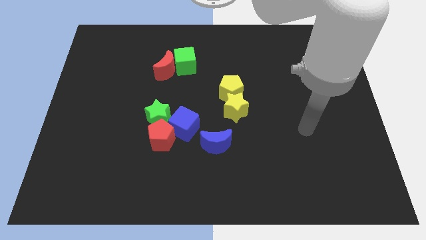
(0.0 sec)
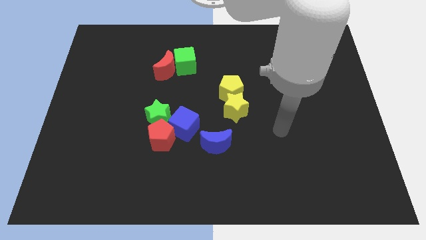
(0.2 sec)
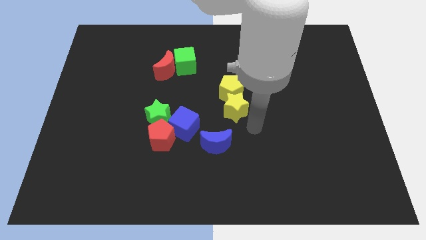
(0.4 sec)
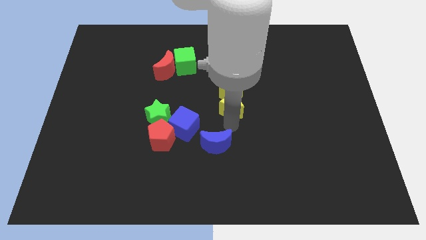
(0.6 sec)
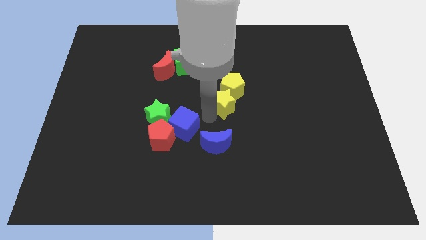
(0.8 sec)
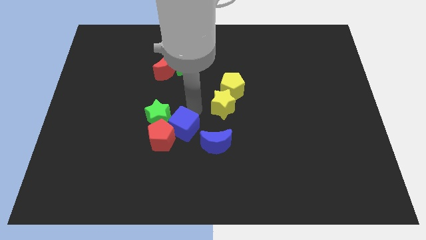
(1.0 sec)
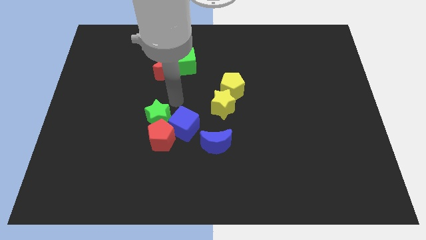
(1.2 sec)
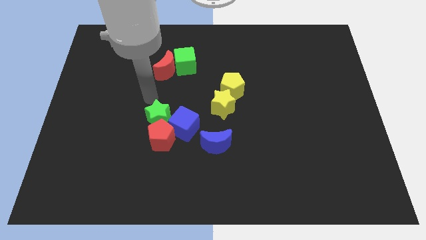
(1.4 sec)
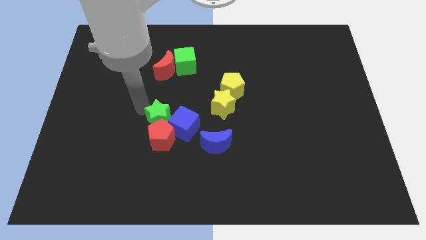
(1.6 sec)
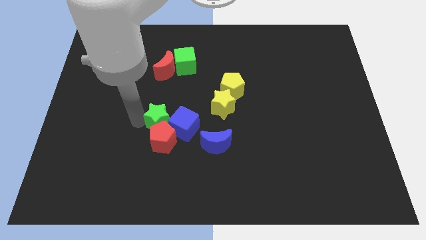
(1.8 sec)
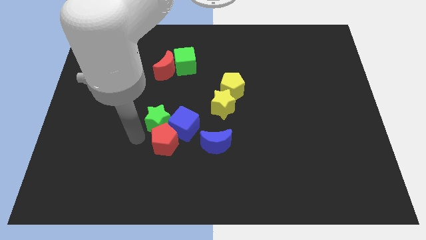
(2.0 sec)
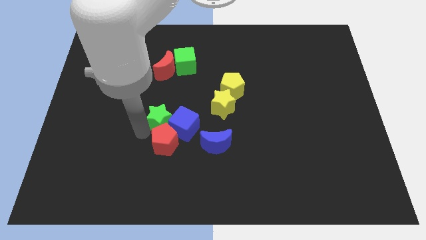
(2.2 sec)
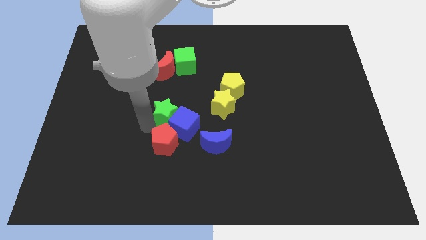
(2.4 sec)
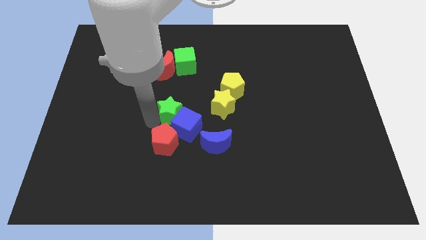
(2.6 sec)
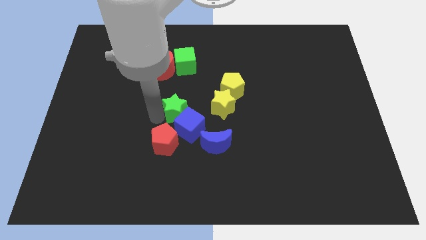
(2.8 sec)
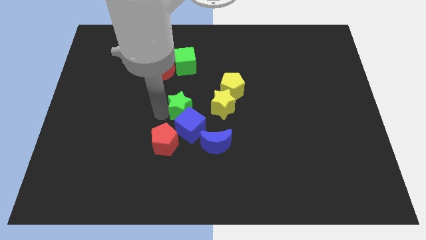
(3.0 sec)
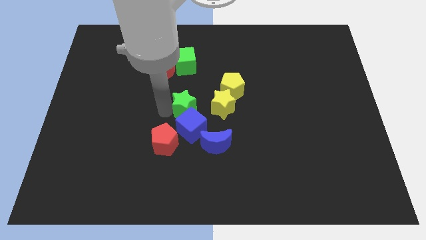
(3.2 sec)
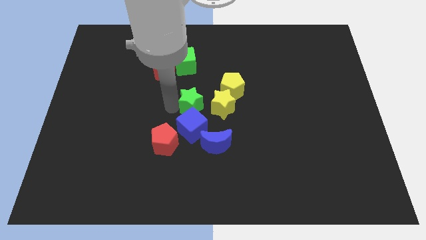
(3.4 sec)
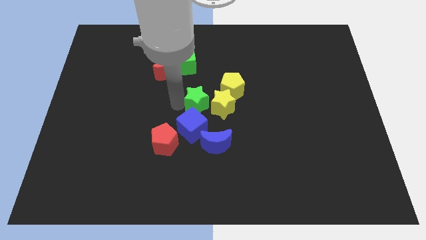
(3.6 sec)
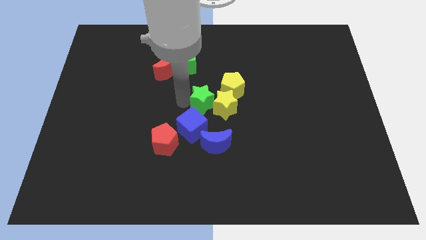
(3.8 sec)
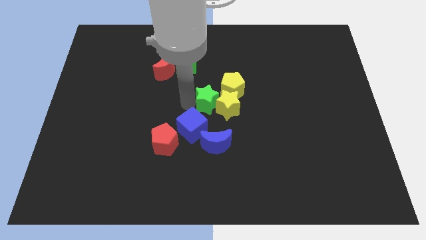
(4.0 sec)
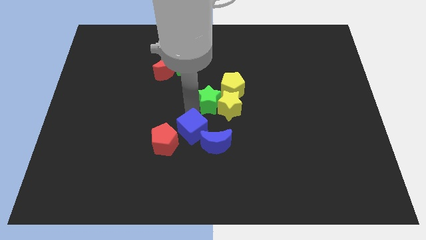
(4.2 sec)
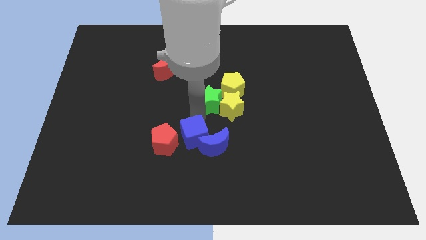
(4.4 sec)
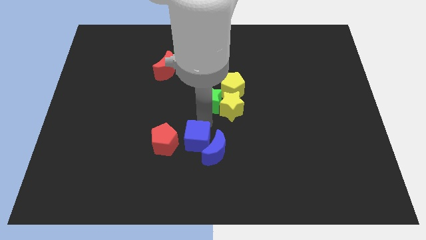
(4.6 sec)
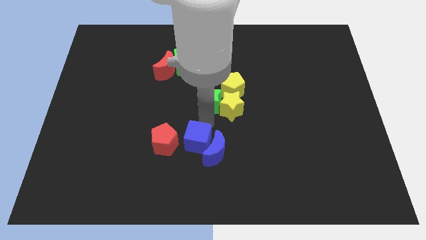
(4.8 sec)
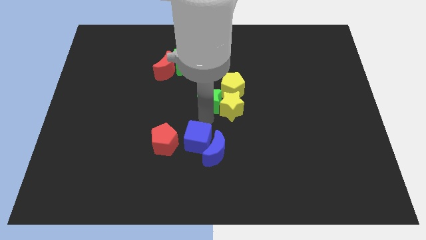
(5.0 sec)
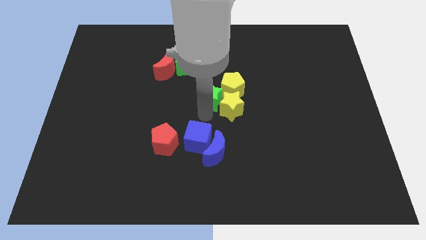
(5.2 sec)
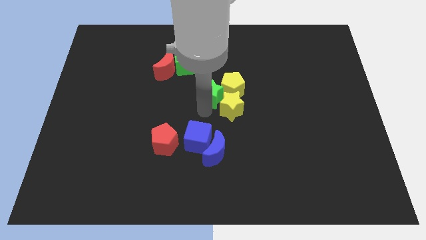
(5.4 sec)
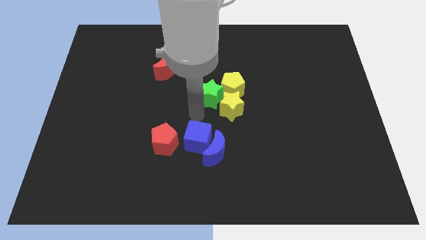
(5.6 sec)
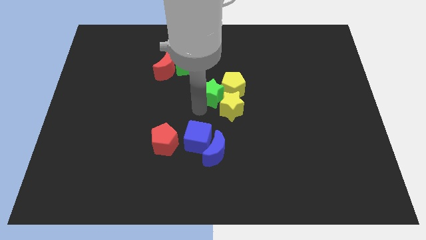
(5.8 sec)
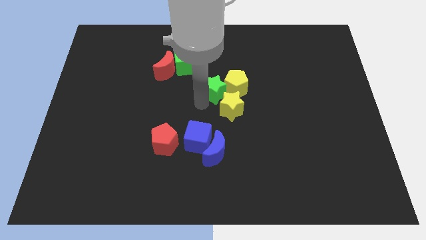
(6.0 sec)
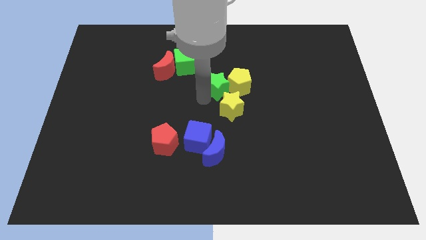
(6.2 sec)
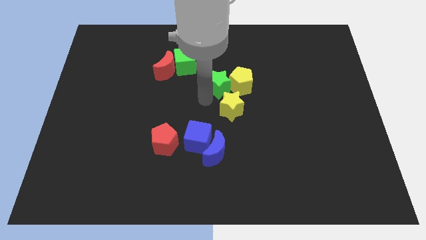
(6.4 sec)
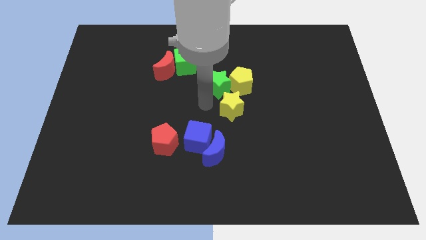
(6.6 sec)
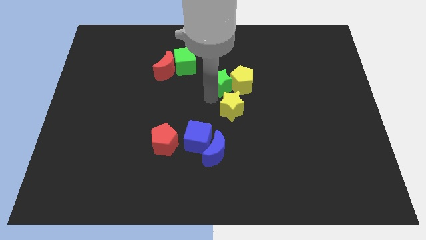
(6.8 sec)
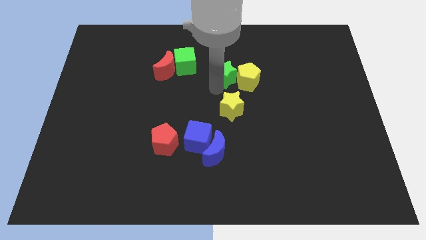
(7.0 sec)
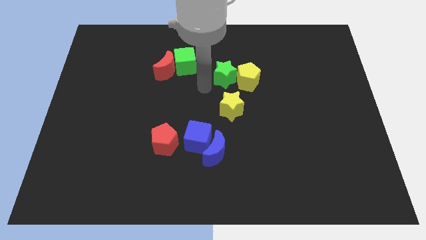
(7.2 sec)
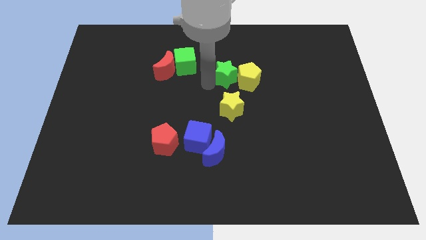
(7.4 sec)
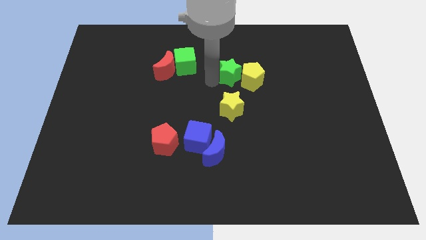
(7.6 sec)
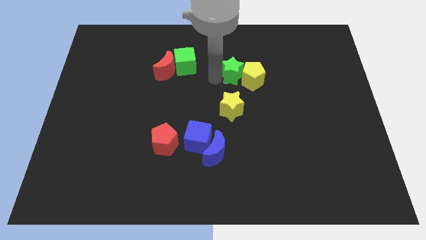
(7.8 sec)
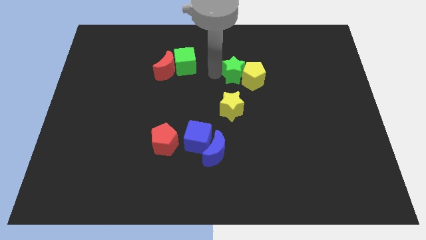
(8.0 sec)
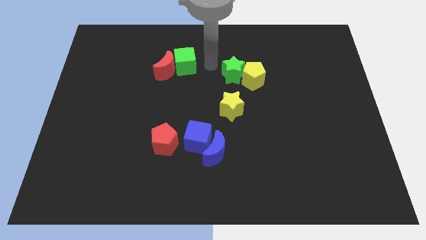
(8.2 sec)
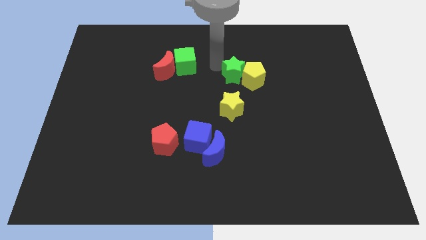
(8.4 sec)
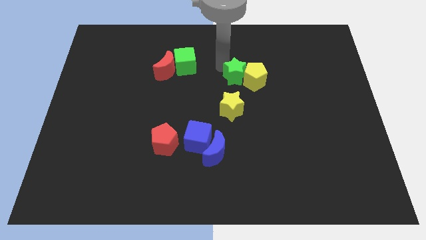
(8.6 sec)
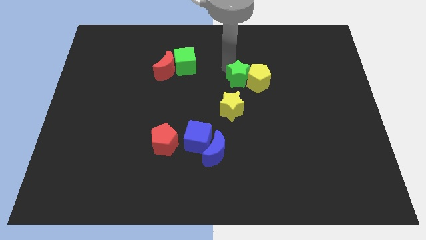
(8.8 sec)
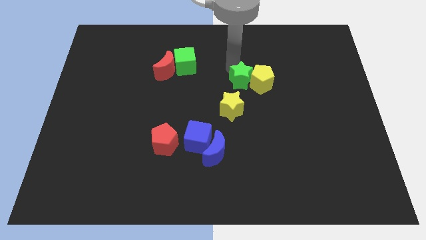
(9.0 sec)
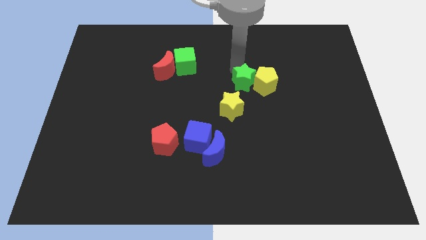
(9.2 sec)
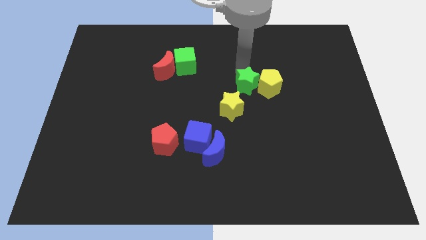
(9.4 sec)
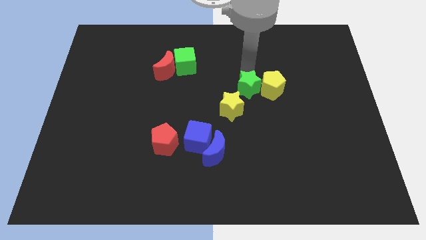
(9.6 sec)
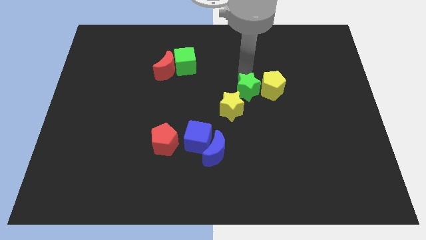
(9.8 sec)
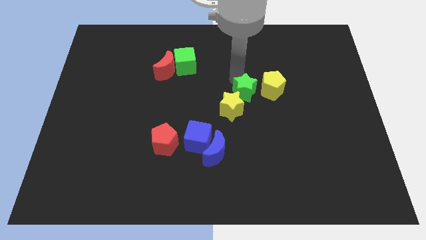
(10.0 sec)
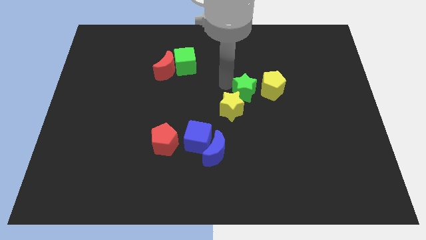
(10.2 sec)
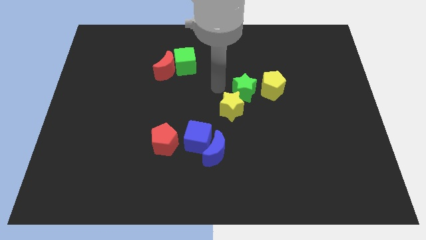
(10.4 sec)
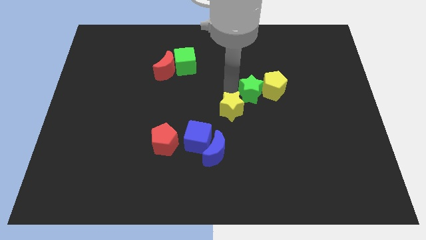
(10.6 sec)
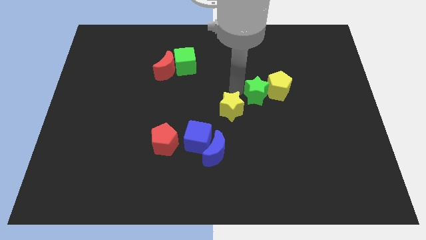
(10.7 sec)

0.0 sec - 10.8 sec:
move the green star to the right

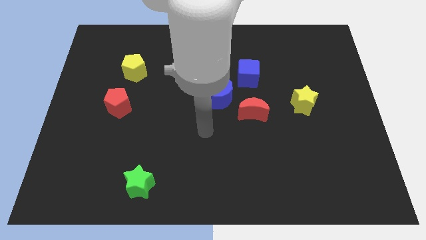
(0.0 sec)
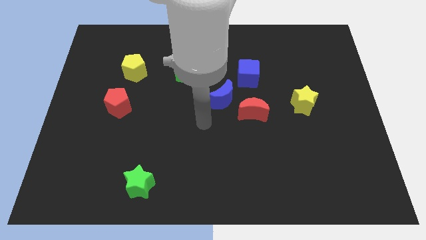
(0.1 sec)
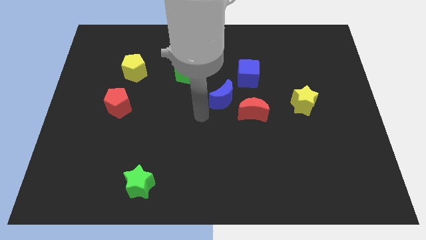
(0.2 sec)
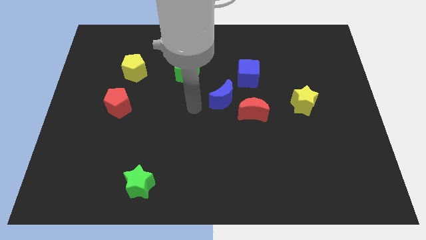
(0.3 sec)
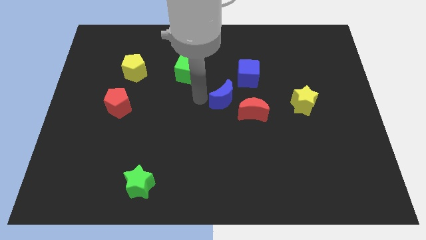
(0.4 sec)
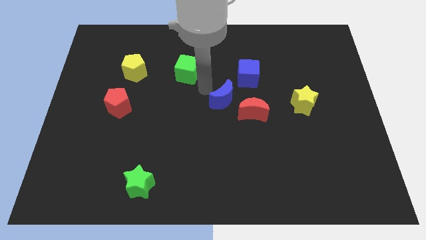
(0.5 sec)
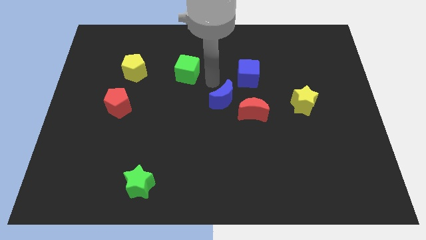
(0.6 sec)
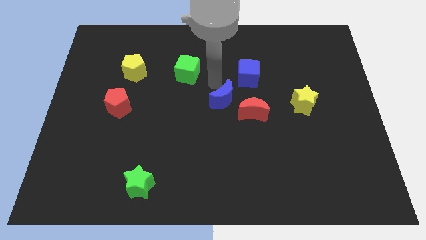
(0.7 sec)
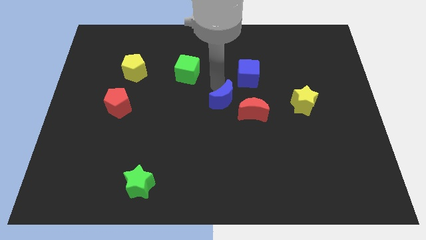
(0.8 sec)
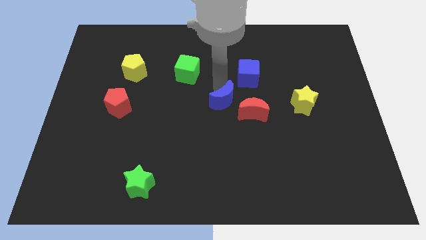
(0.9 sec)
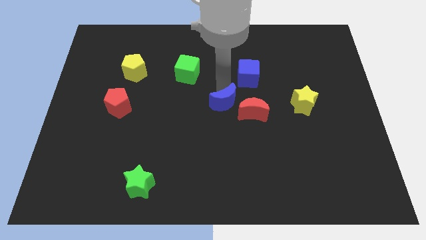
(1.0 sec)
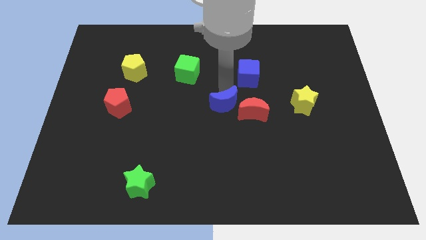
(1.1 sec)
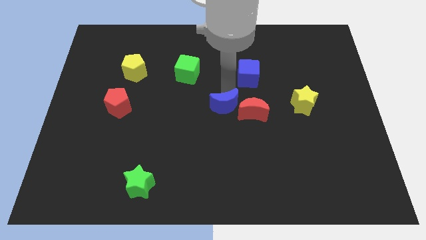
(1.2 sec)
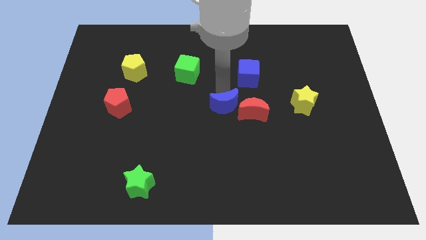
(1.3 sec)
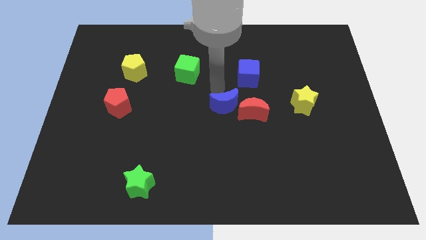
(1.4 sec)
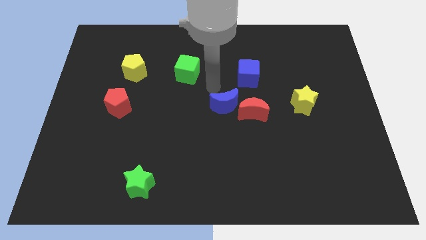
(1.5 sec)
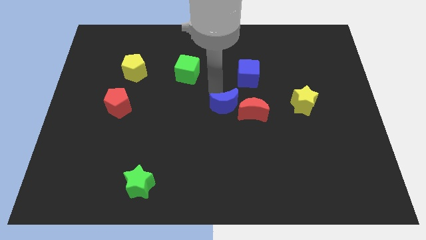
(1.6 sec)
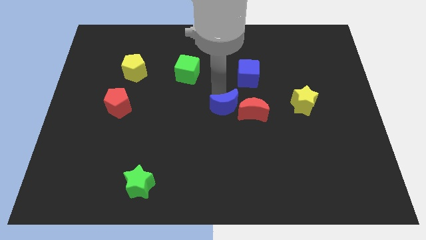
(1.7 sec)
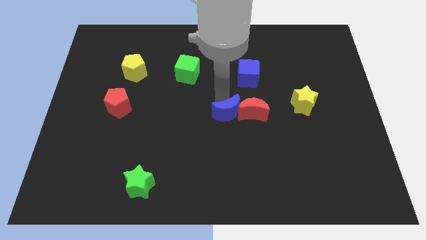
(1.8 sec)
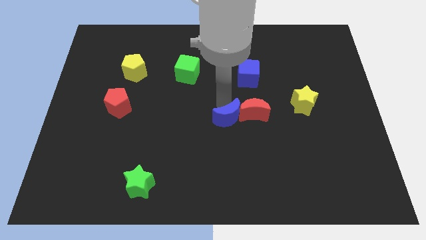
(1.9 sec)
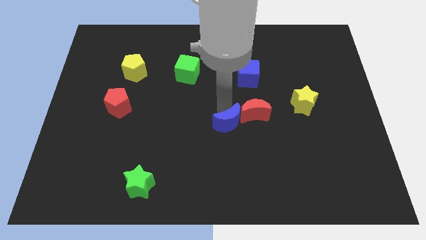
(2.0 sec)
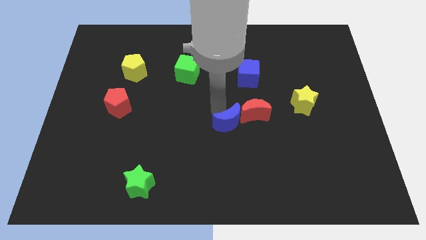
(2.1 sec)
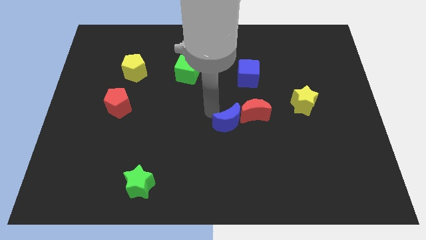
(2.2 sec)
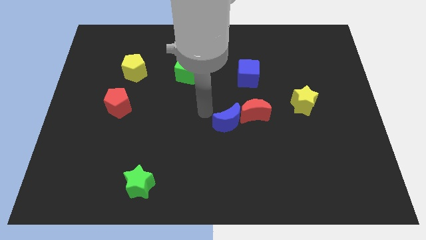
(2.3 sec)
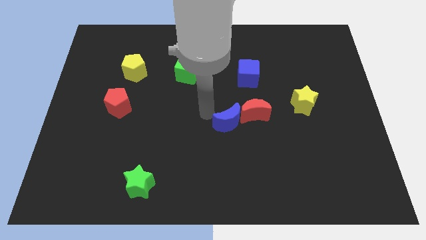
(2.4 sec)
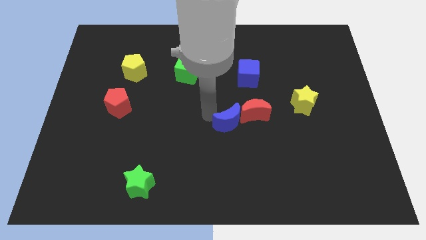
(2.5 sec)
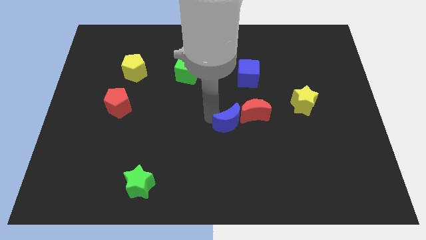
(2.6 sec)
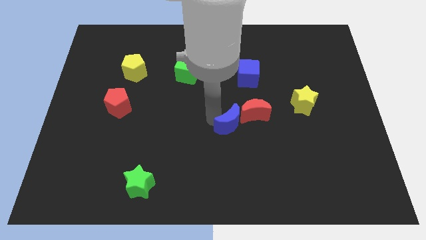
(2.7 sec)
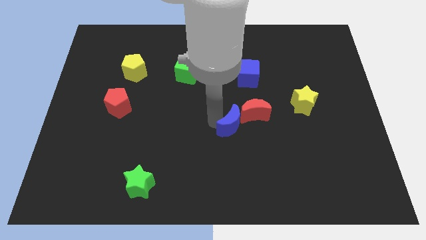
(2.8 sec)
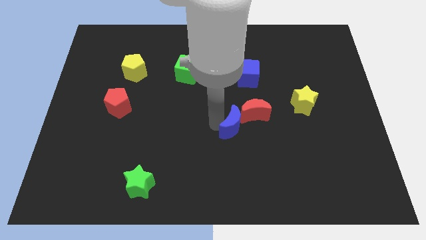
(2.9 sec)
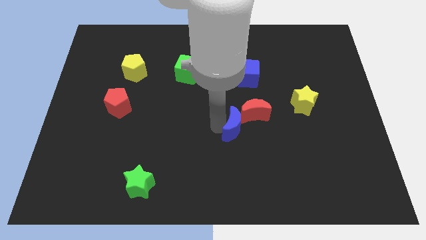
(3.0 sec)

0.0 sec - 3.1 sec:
slide the blue moon downwards and then to the right a little bit
